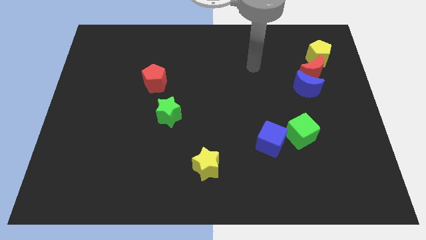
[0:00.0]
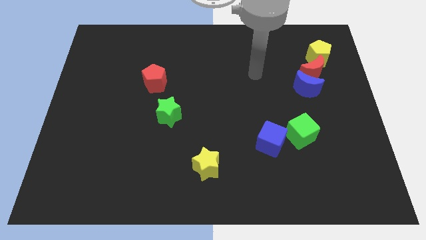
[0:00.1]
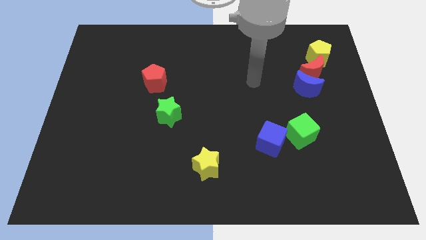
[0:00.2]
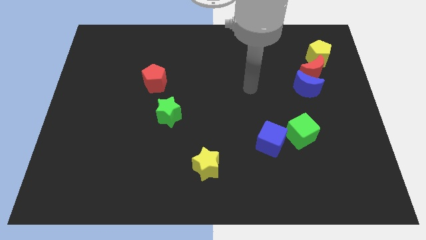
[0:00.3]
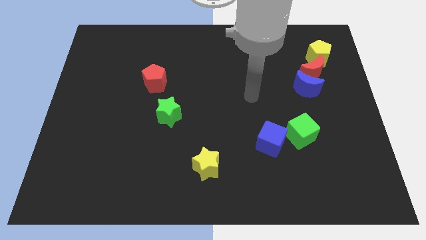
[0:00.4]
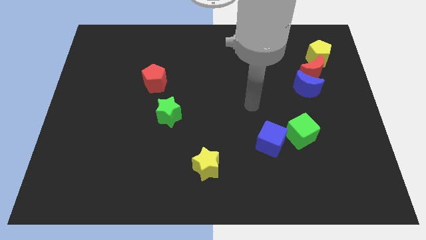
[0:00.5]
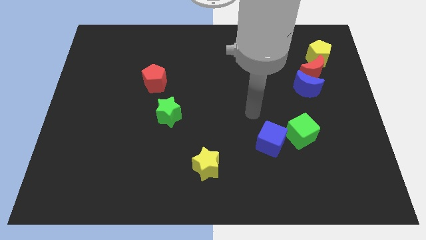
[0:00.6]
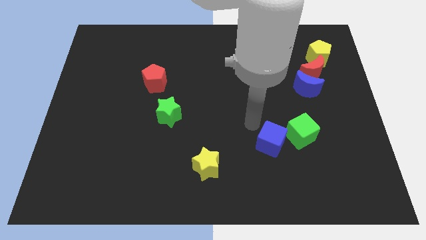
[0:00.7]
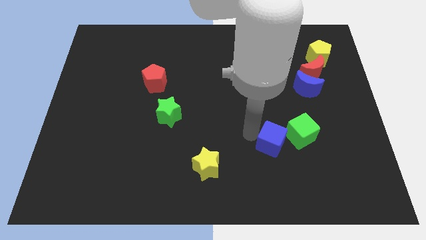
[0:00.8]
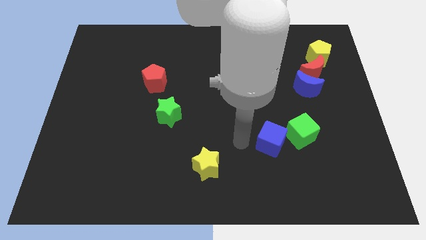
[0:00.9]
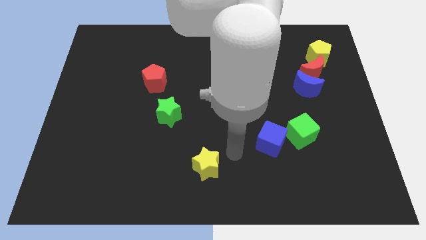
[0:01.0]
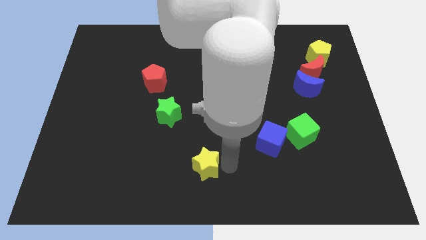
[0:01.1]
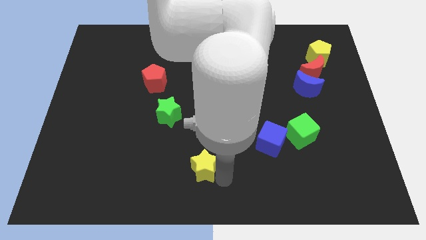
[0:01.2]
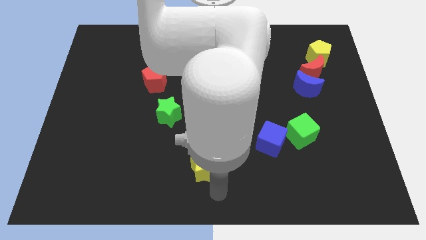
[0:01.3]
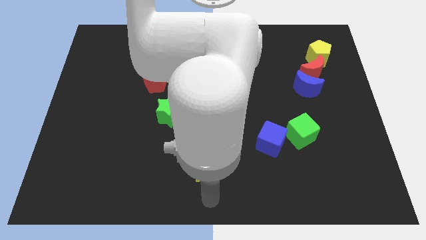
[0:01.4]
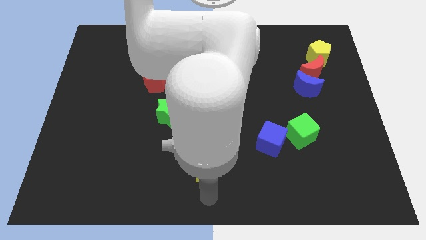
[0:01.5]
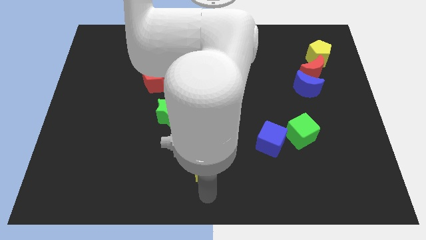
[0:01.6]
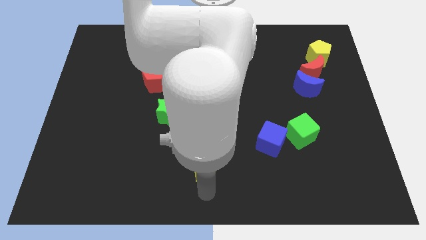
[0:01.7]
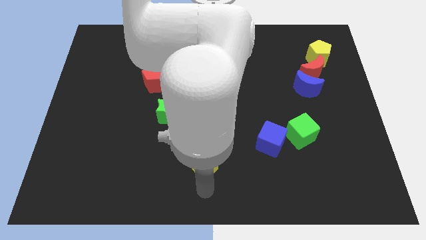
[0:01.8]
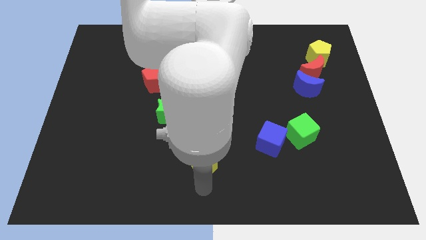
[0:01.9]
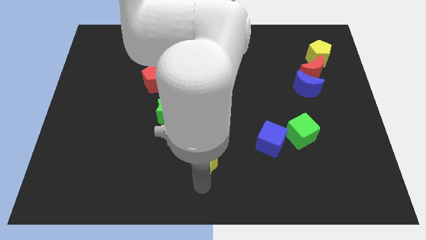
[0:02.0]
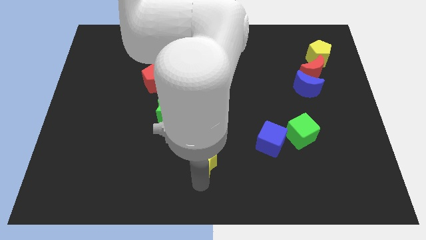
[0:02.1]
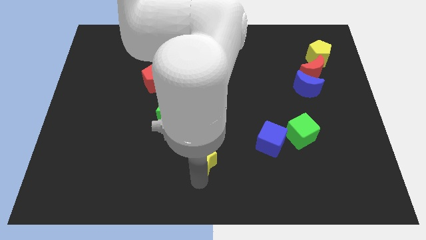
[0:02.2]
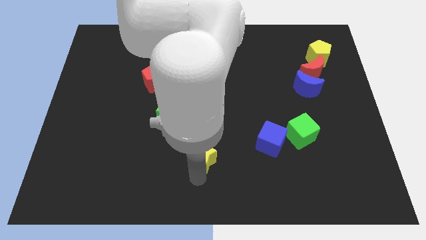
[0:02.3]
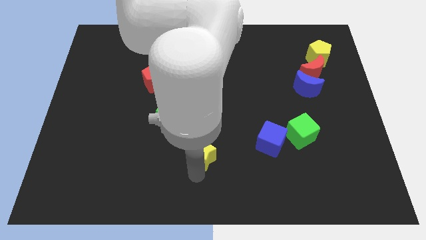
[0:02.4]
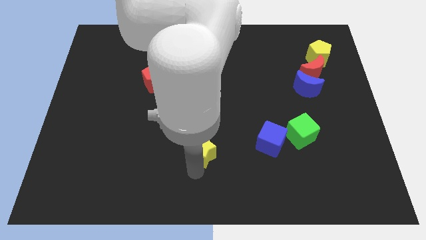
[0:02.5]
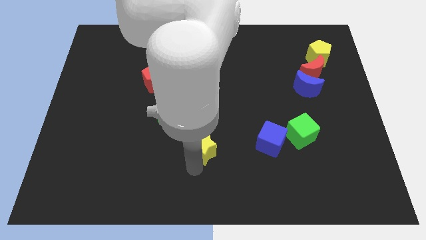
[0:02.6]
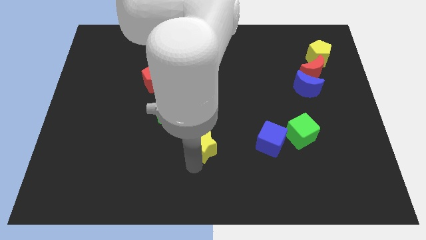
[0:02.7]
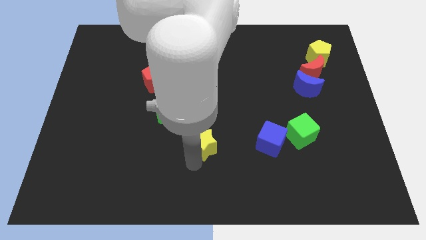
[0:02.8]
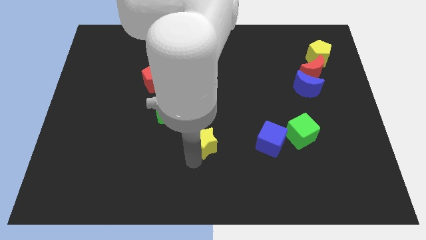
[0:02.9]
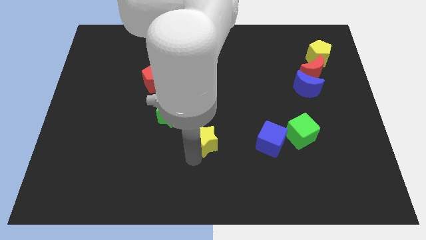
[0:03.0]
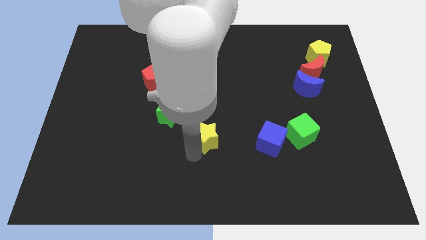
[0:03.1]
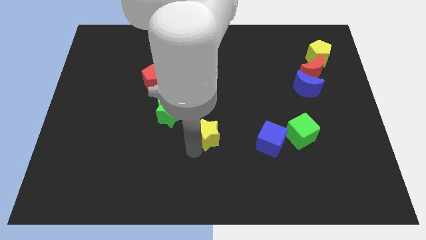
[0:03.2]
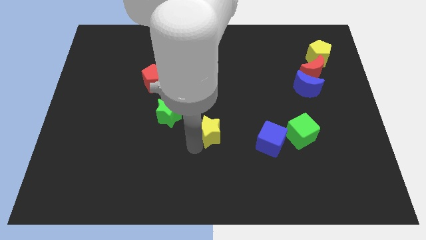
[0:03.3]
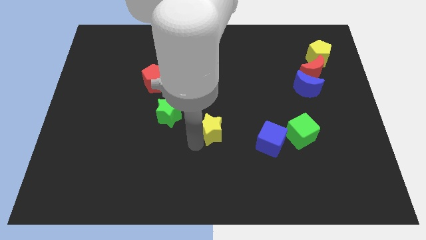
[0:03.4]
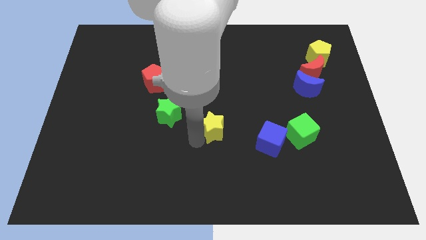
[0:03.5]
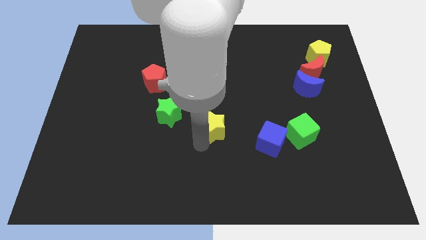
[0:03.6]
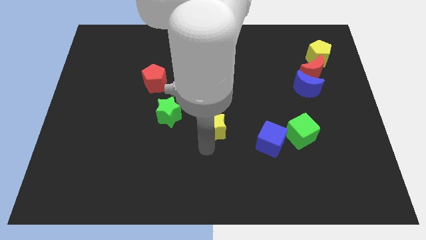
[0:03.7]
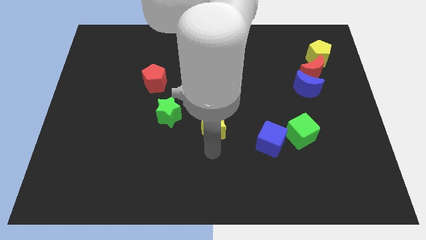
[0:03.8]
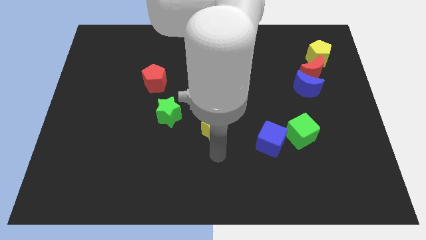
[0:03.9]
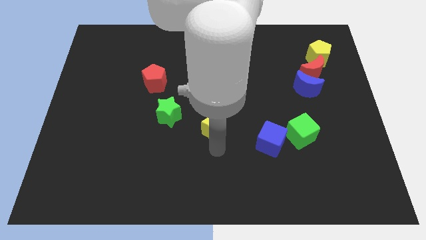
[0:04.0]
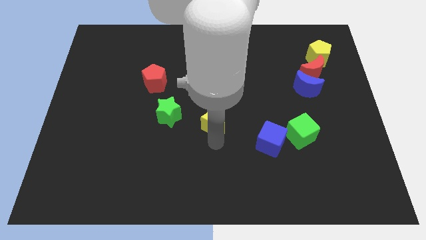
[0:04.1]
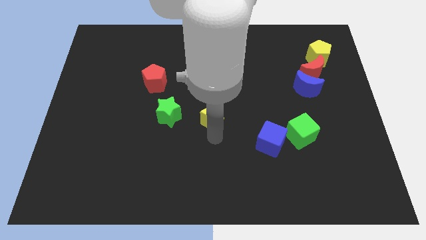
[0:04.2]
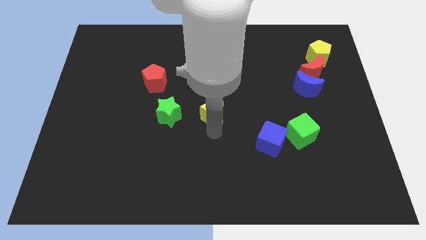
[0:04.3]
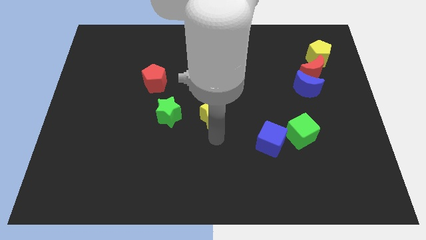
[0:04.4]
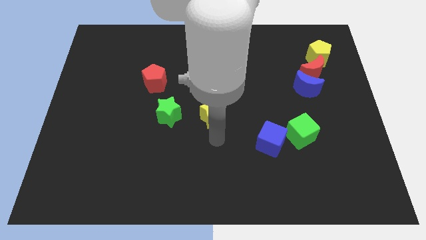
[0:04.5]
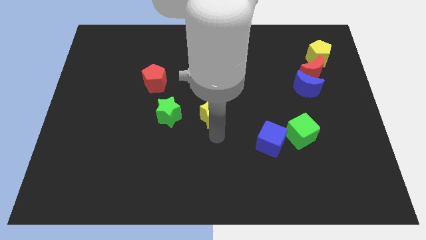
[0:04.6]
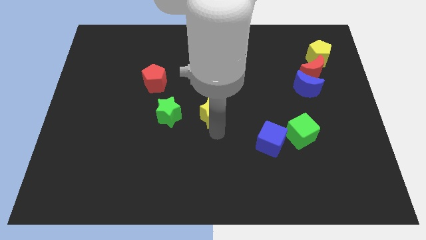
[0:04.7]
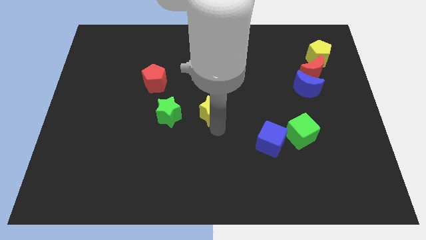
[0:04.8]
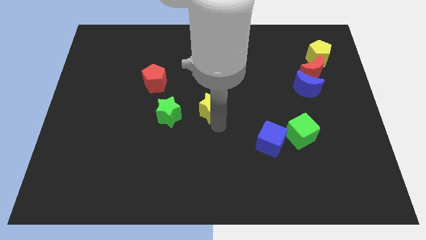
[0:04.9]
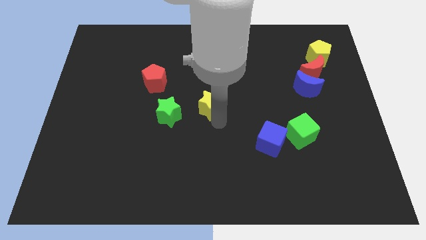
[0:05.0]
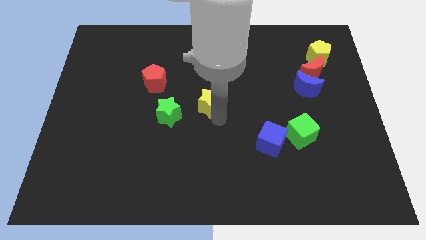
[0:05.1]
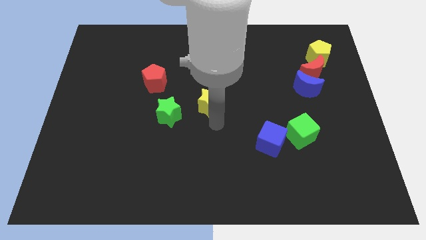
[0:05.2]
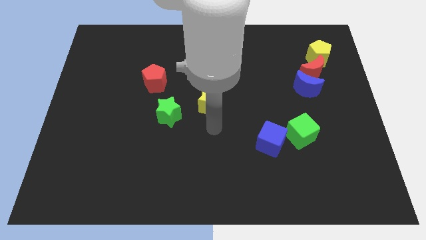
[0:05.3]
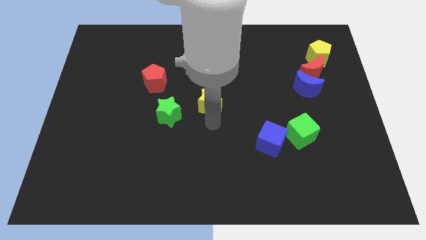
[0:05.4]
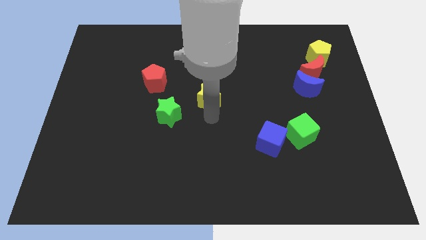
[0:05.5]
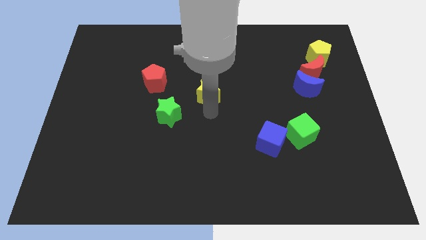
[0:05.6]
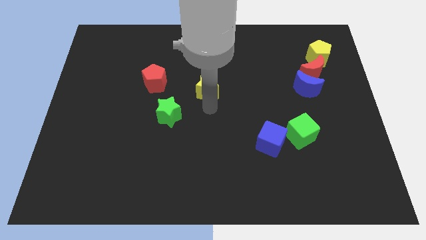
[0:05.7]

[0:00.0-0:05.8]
push the yellow star up

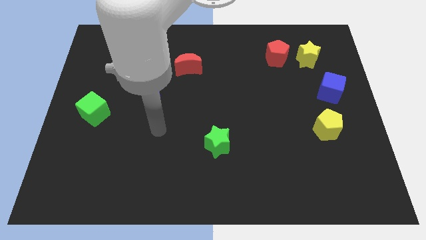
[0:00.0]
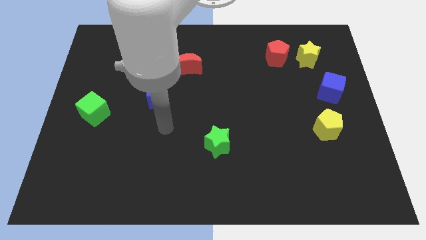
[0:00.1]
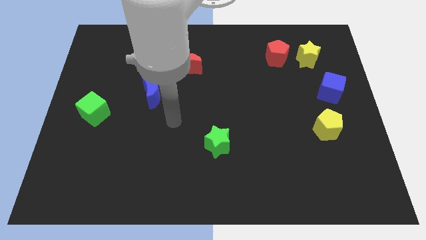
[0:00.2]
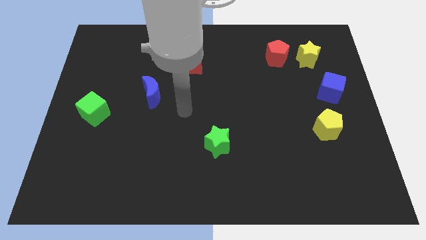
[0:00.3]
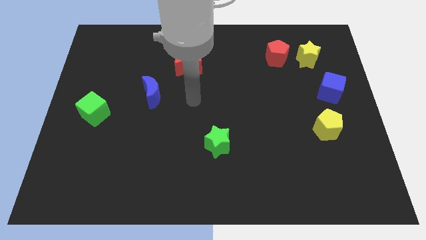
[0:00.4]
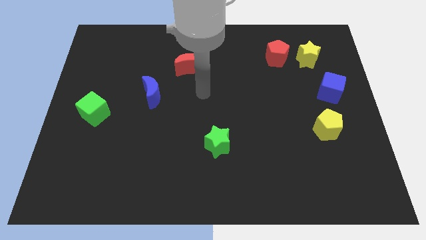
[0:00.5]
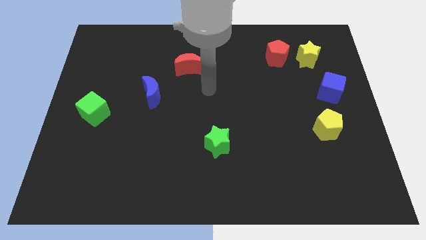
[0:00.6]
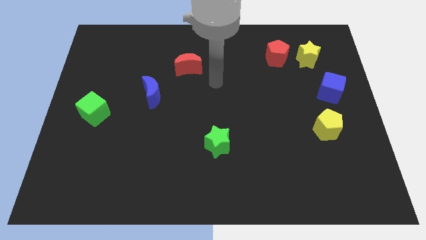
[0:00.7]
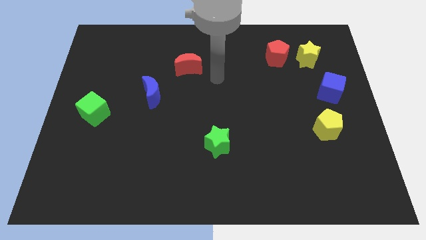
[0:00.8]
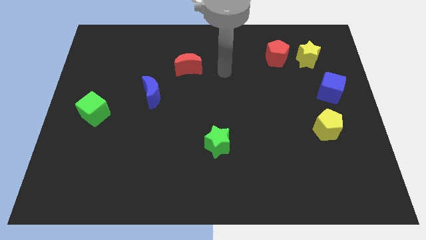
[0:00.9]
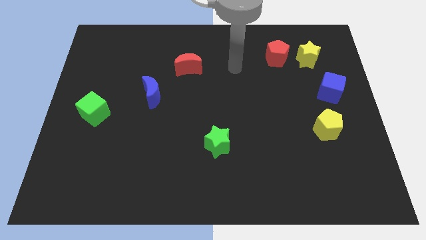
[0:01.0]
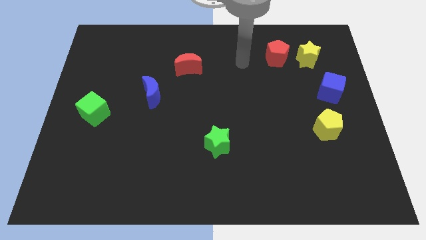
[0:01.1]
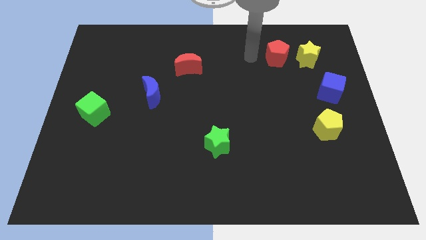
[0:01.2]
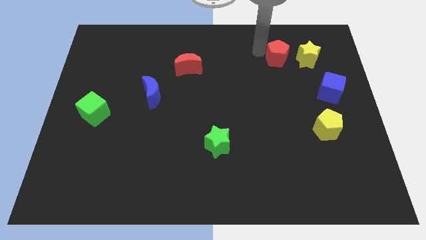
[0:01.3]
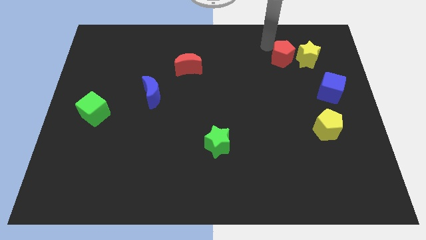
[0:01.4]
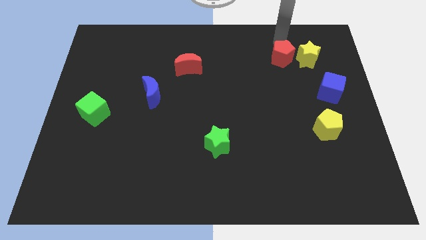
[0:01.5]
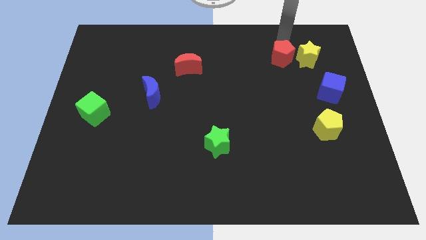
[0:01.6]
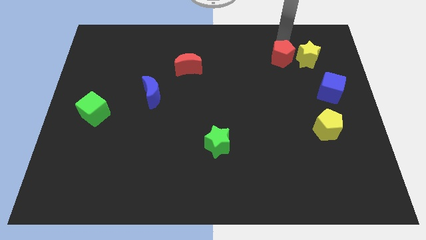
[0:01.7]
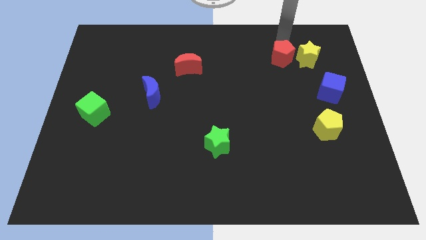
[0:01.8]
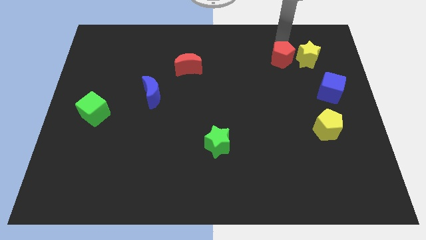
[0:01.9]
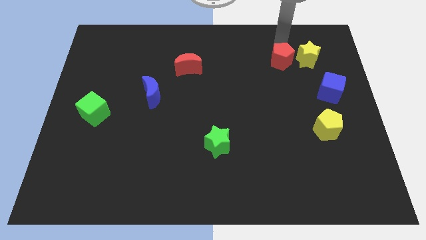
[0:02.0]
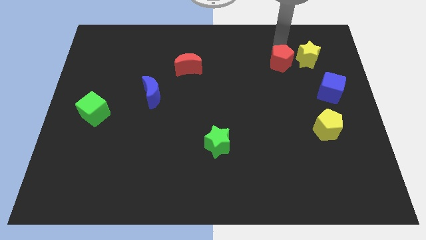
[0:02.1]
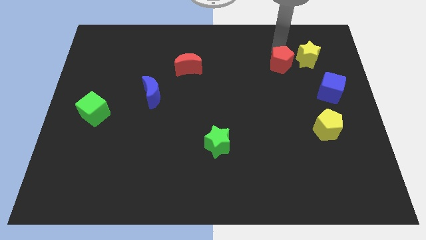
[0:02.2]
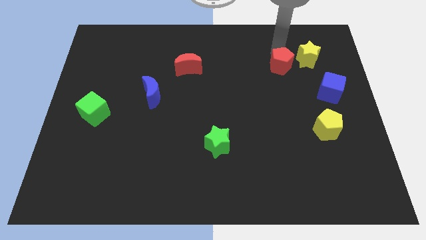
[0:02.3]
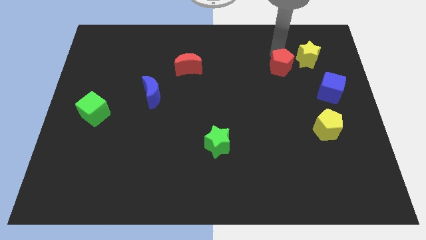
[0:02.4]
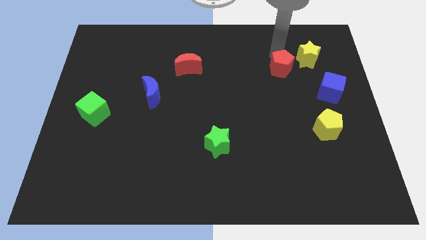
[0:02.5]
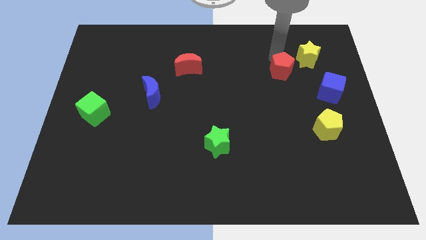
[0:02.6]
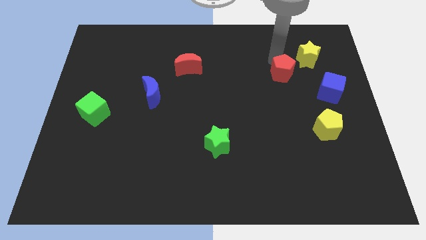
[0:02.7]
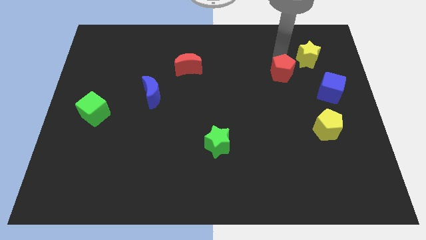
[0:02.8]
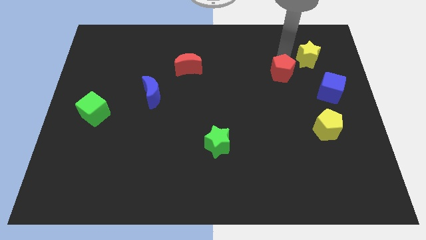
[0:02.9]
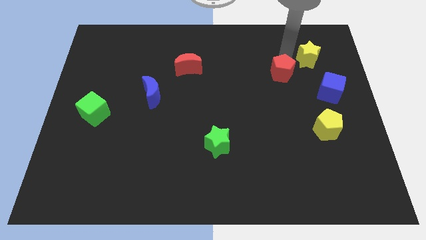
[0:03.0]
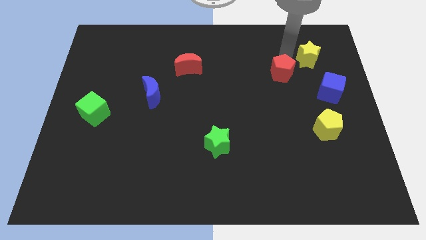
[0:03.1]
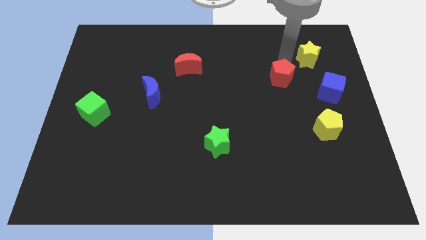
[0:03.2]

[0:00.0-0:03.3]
slide the red pentagon down a bit
